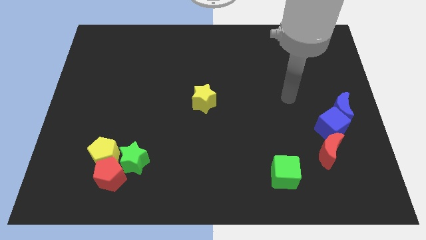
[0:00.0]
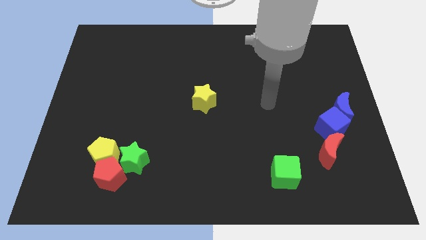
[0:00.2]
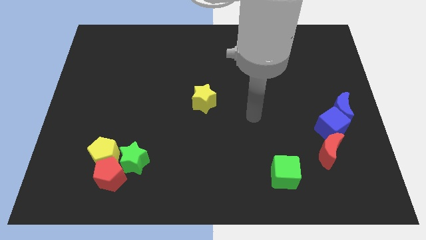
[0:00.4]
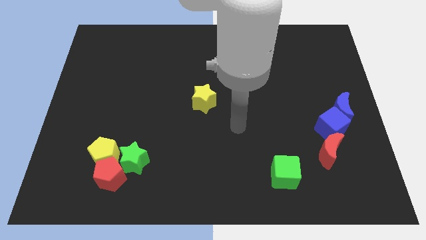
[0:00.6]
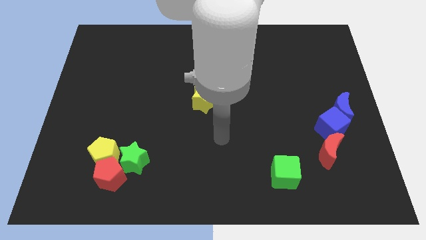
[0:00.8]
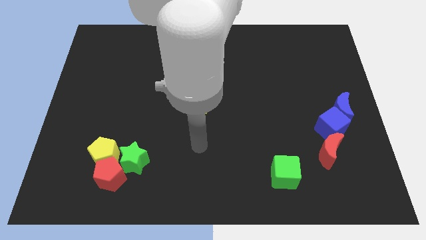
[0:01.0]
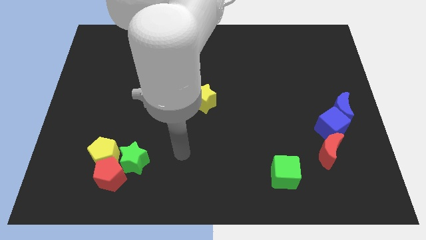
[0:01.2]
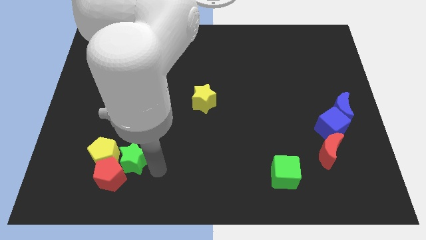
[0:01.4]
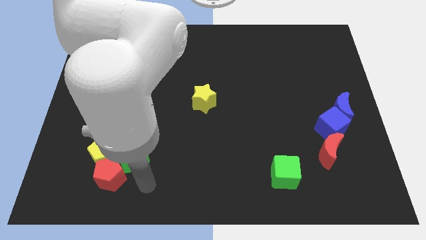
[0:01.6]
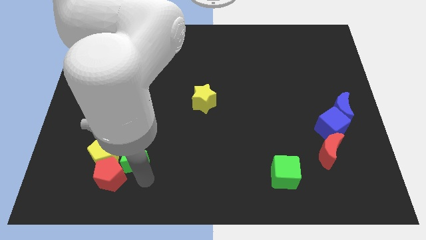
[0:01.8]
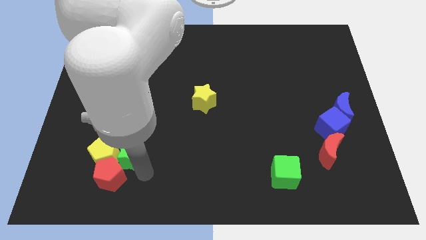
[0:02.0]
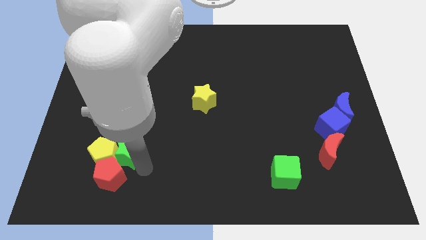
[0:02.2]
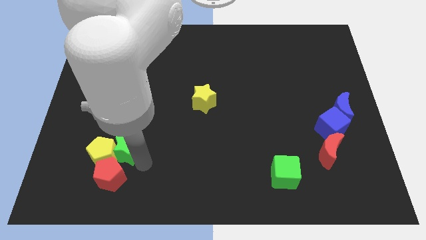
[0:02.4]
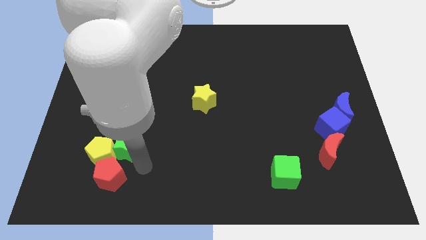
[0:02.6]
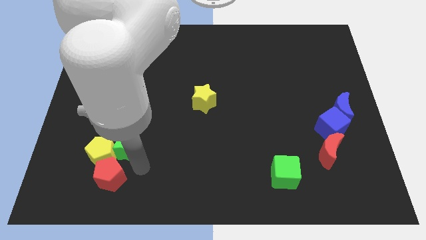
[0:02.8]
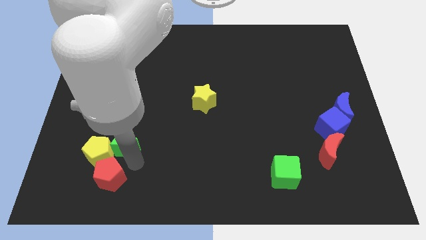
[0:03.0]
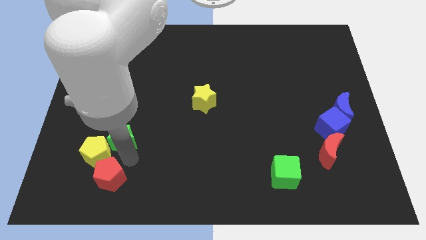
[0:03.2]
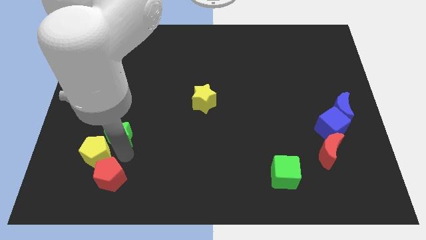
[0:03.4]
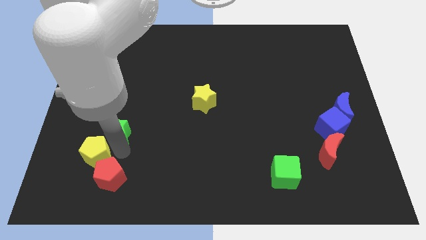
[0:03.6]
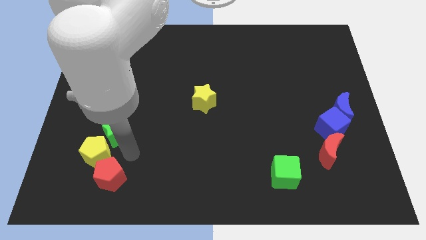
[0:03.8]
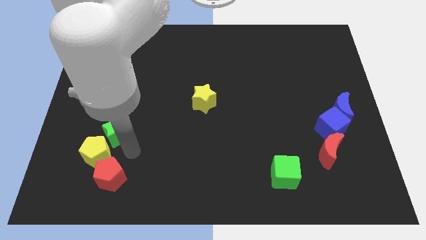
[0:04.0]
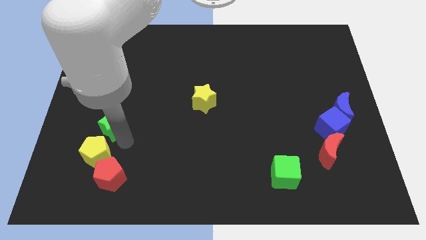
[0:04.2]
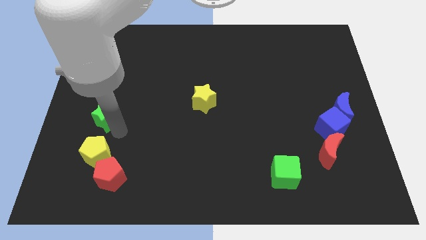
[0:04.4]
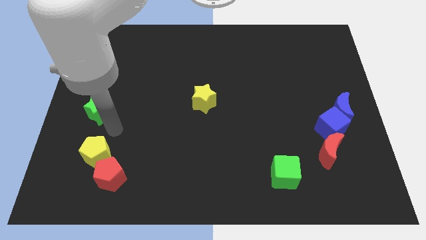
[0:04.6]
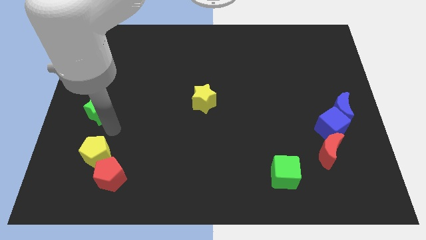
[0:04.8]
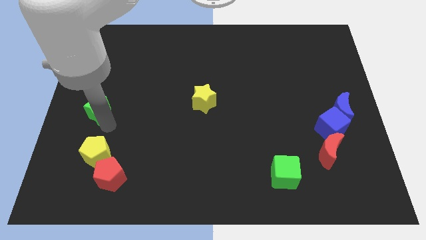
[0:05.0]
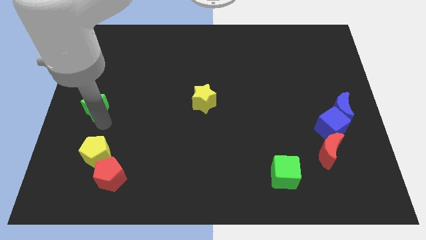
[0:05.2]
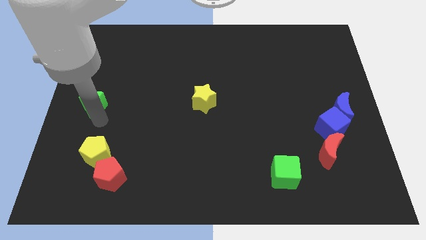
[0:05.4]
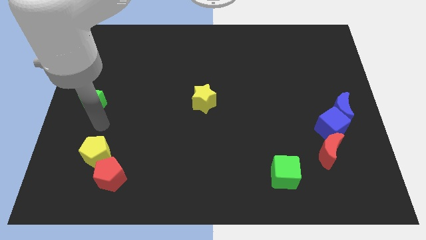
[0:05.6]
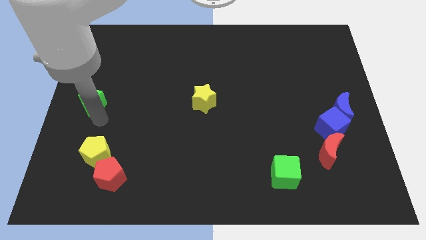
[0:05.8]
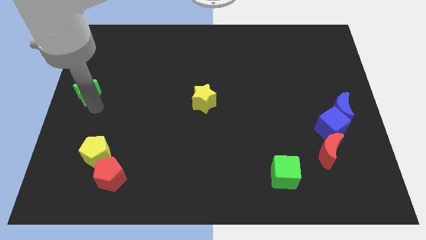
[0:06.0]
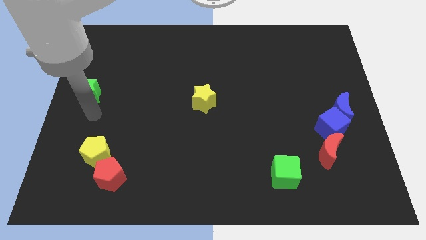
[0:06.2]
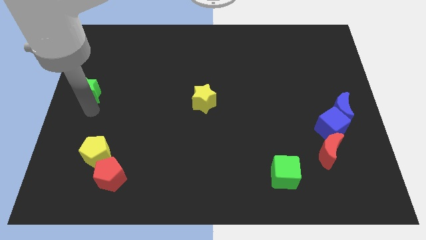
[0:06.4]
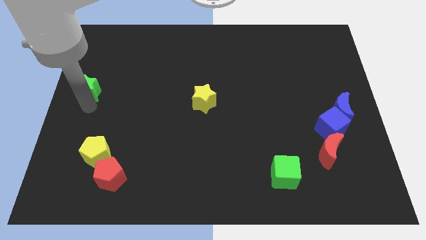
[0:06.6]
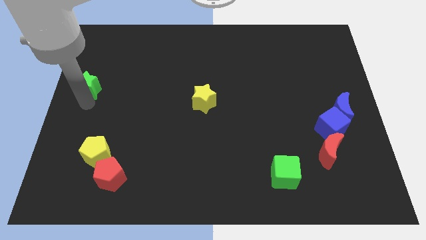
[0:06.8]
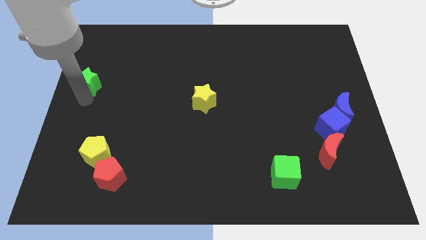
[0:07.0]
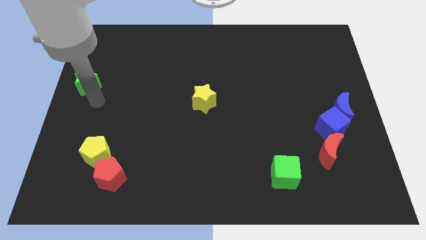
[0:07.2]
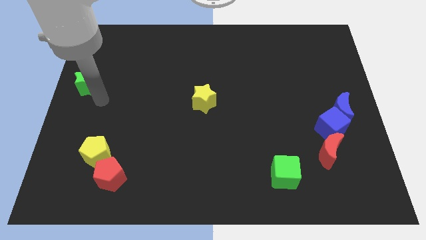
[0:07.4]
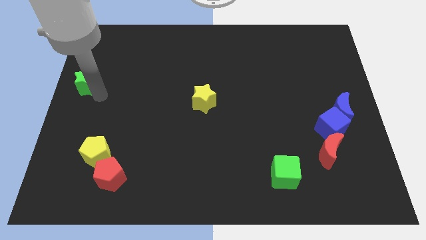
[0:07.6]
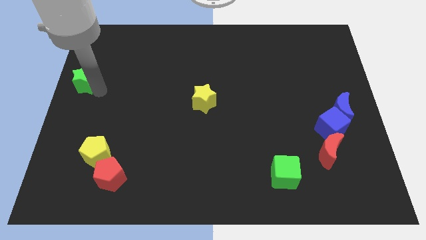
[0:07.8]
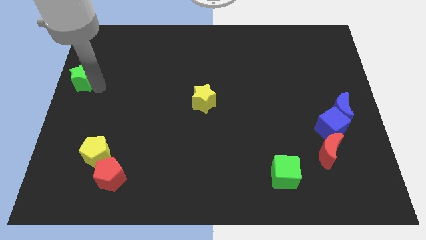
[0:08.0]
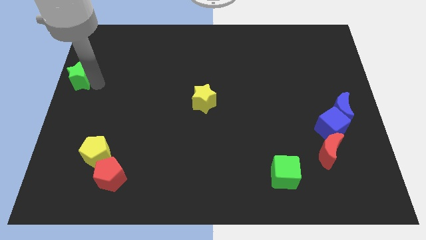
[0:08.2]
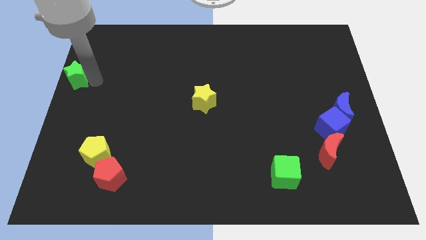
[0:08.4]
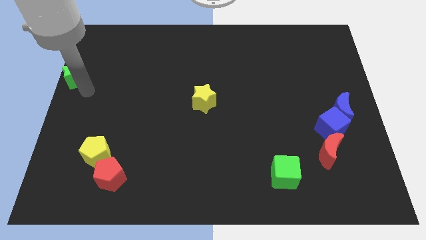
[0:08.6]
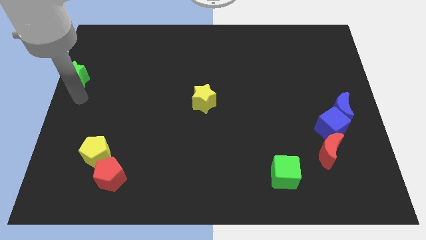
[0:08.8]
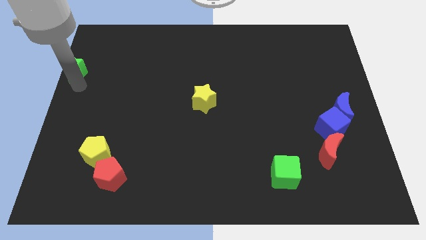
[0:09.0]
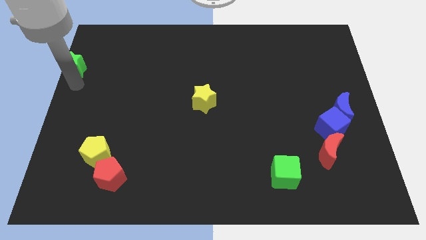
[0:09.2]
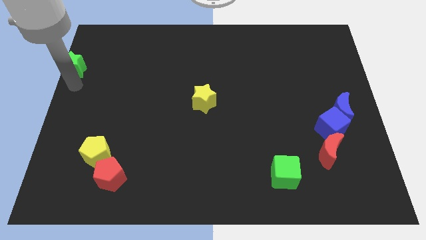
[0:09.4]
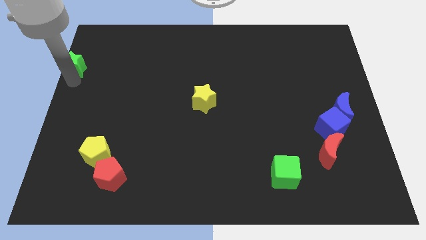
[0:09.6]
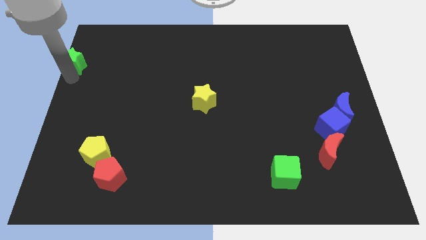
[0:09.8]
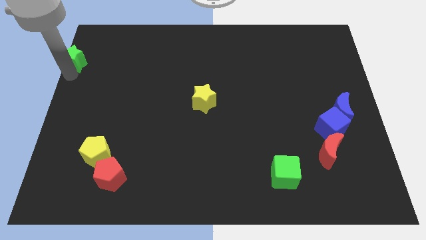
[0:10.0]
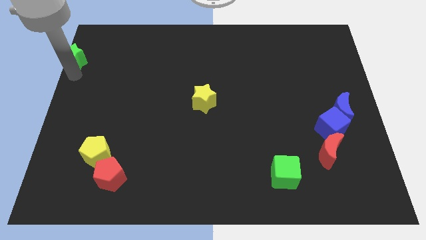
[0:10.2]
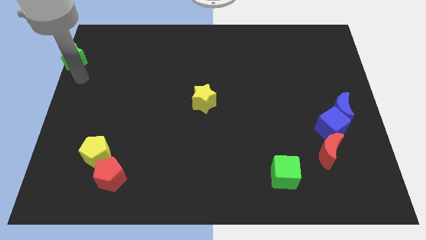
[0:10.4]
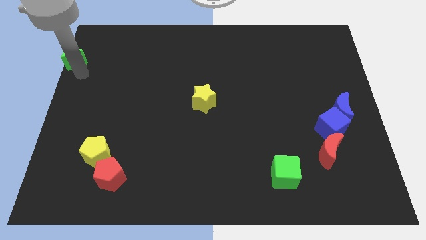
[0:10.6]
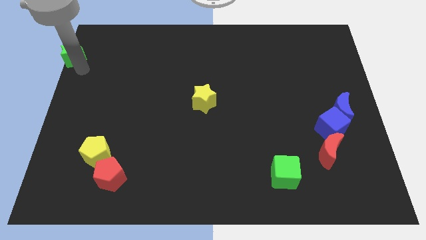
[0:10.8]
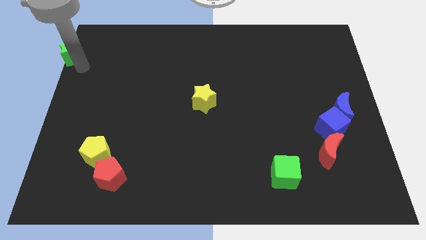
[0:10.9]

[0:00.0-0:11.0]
slide the green star to the top left

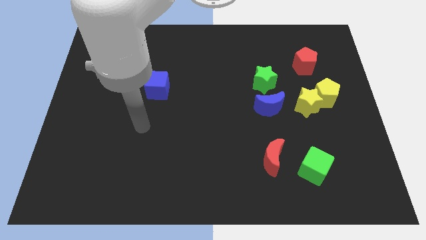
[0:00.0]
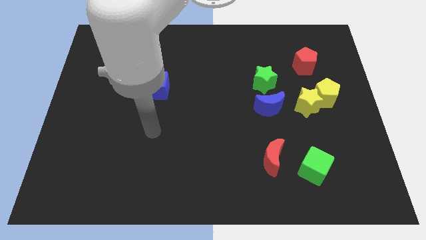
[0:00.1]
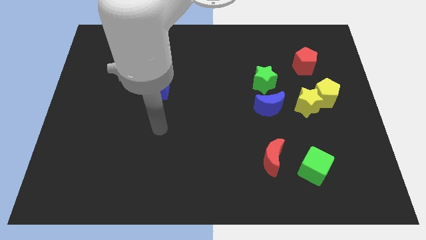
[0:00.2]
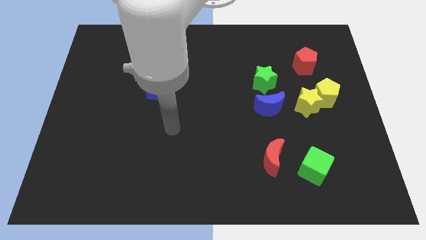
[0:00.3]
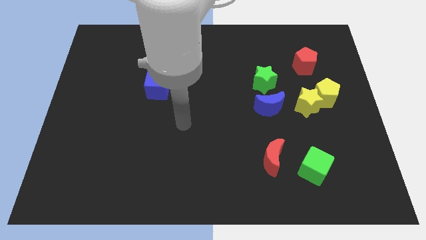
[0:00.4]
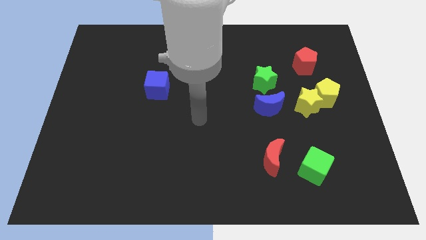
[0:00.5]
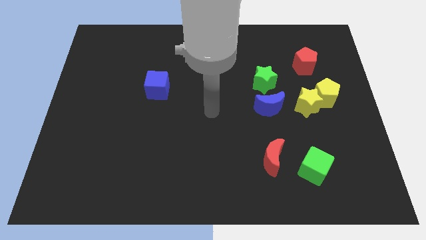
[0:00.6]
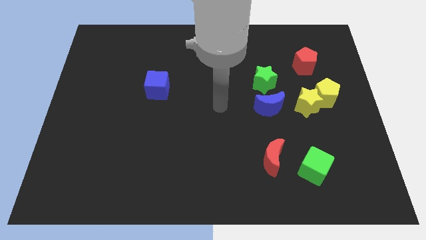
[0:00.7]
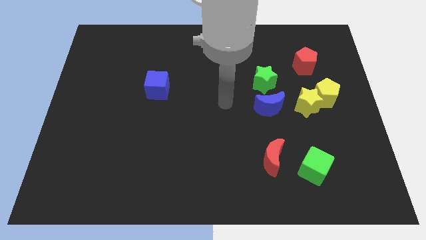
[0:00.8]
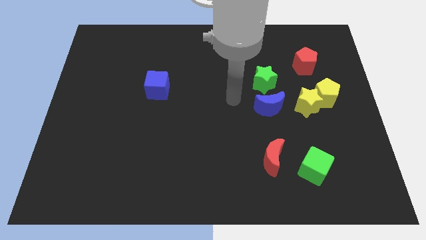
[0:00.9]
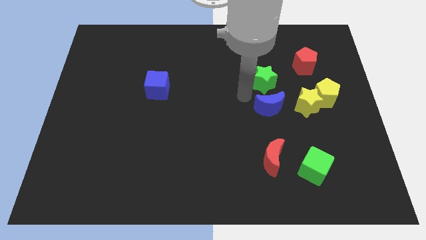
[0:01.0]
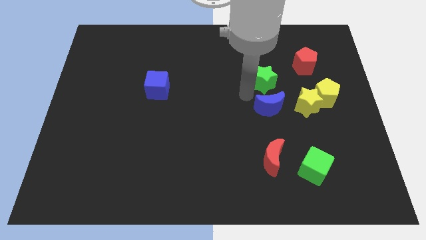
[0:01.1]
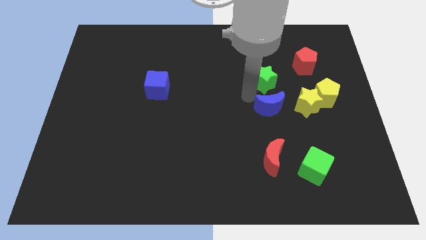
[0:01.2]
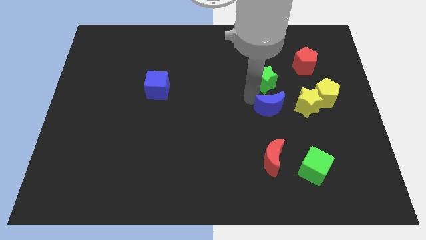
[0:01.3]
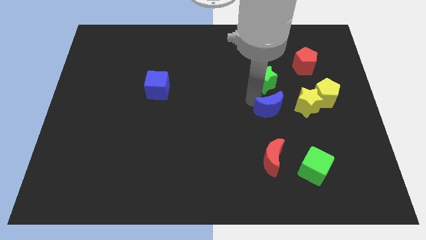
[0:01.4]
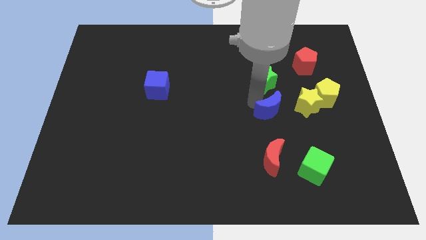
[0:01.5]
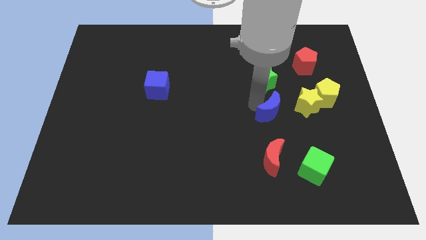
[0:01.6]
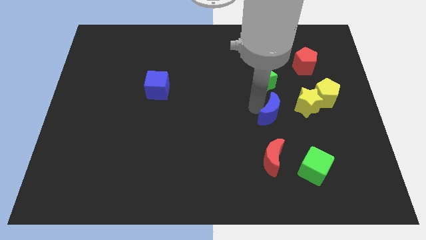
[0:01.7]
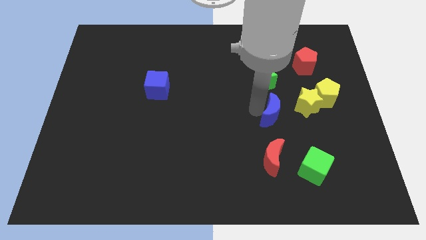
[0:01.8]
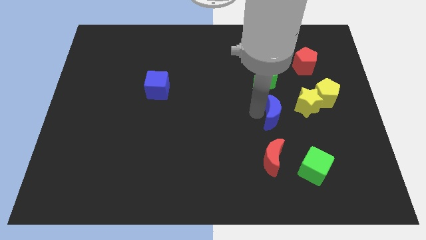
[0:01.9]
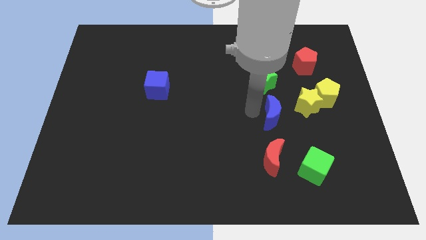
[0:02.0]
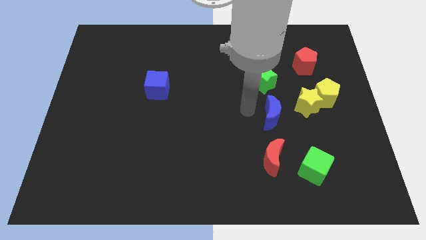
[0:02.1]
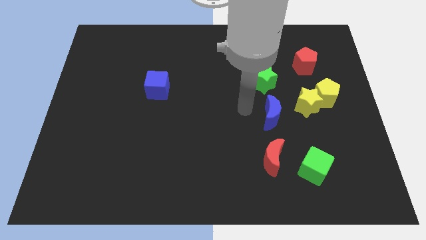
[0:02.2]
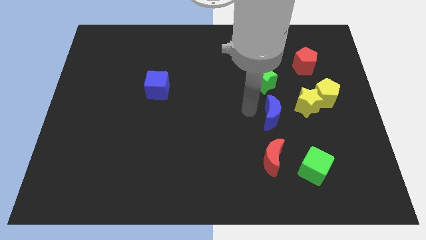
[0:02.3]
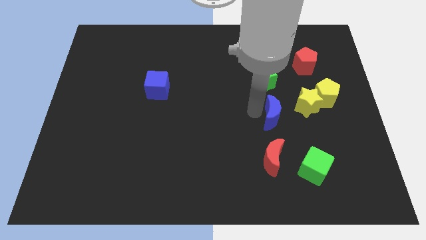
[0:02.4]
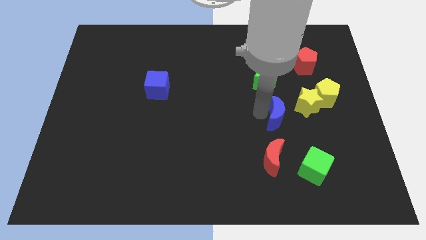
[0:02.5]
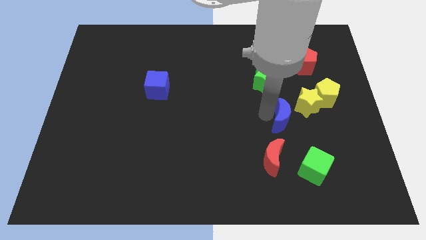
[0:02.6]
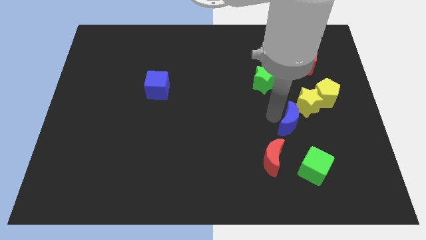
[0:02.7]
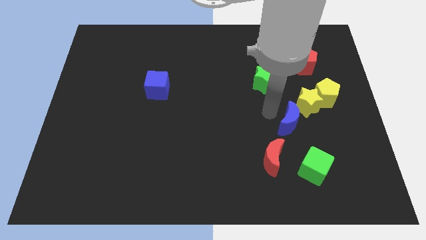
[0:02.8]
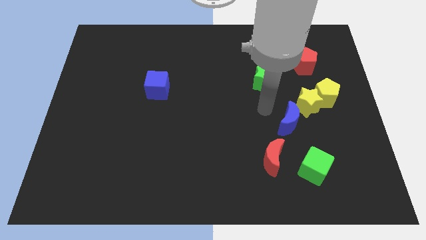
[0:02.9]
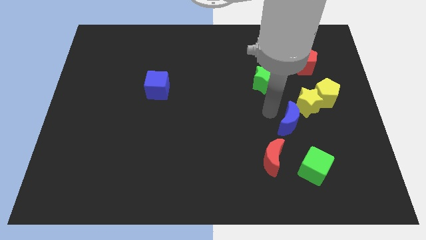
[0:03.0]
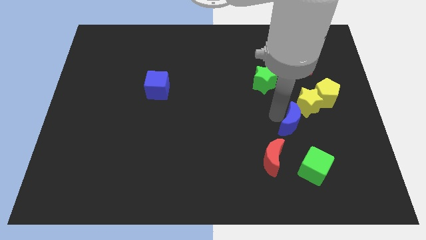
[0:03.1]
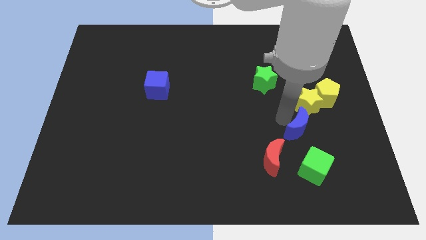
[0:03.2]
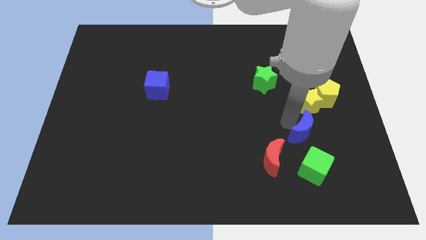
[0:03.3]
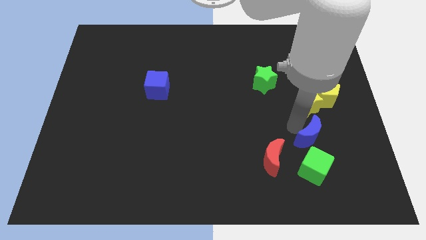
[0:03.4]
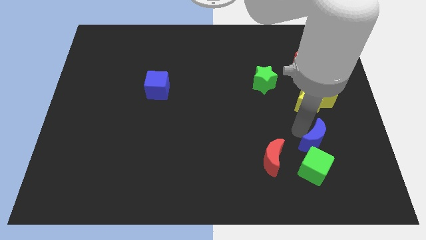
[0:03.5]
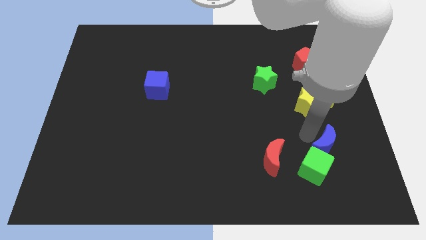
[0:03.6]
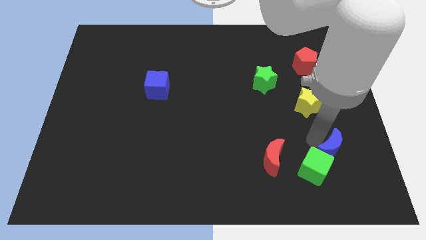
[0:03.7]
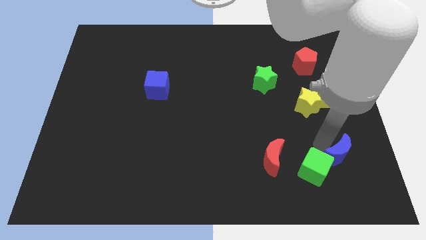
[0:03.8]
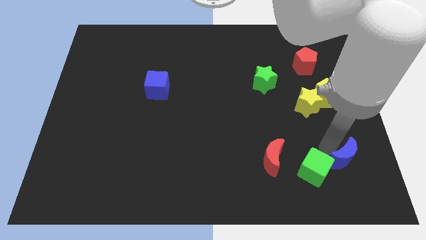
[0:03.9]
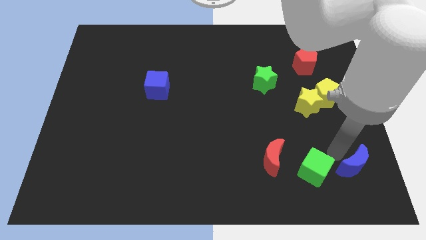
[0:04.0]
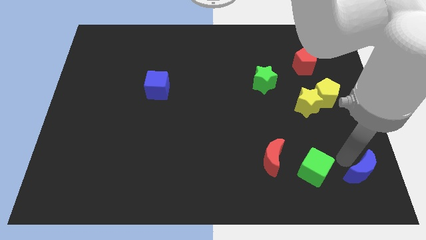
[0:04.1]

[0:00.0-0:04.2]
slide the blue moon to the bottom right of the board
